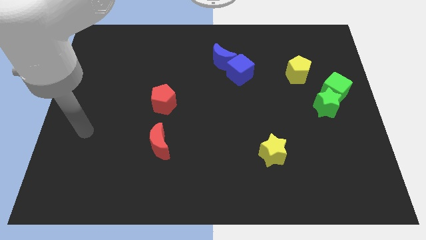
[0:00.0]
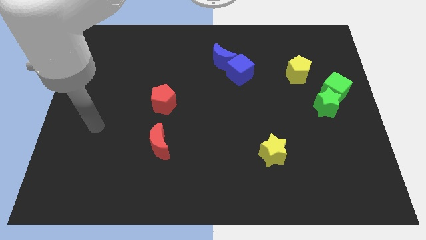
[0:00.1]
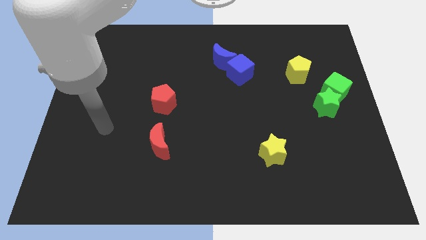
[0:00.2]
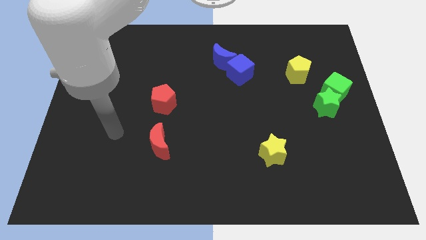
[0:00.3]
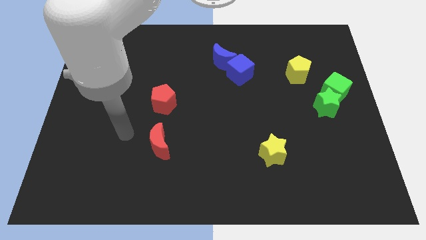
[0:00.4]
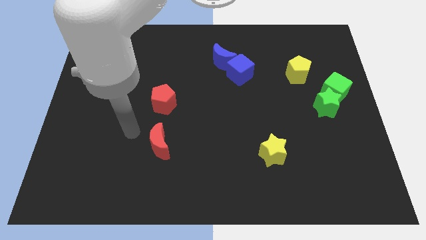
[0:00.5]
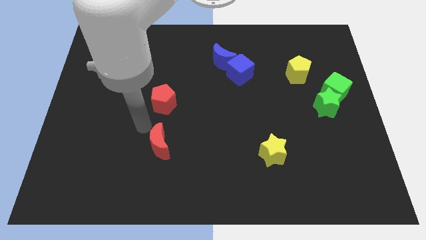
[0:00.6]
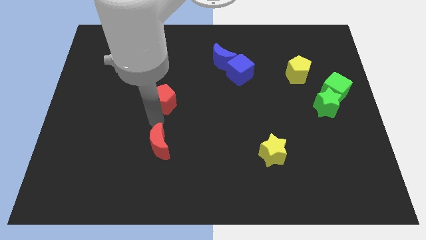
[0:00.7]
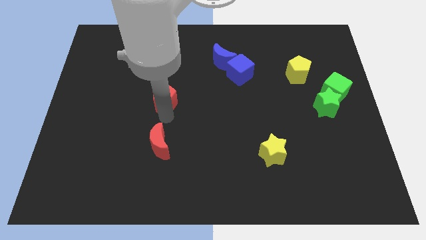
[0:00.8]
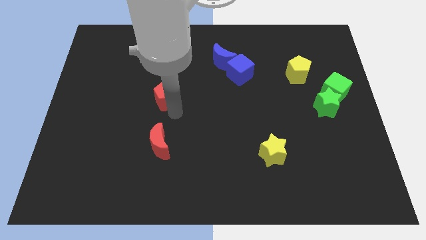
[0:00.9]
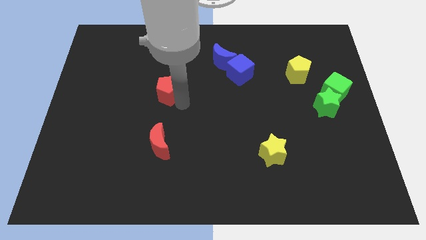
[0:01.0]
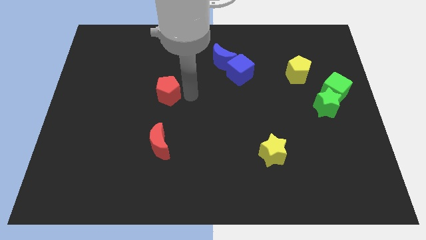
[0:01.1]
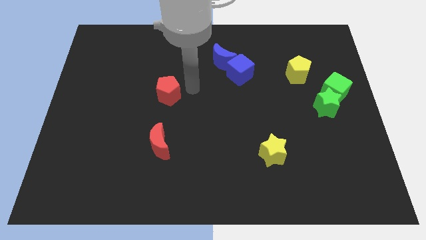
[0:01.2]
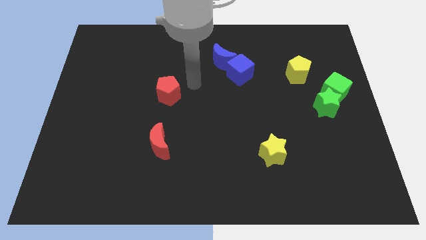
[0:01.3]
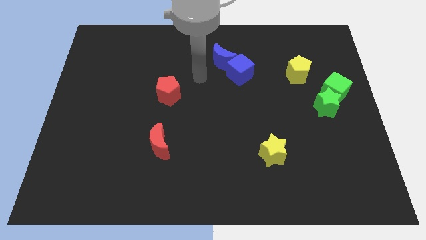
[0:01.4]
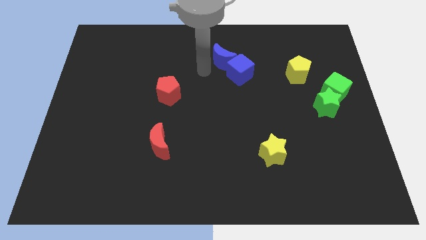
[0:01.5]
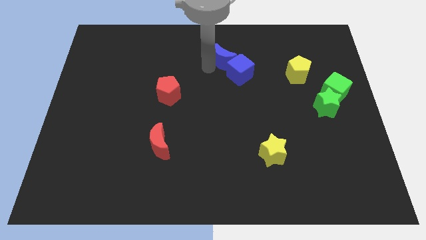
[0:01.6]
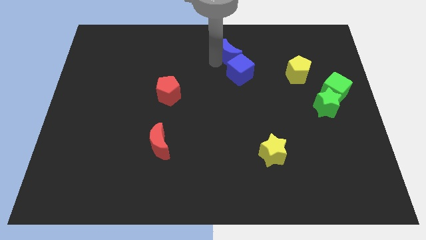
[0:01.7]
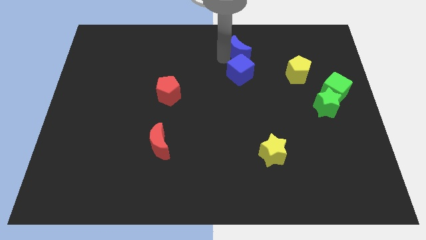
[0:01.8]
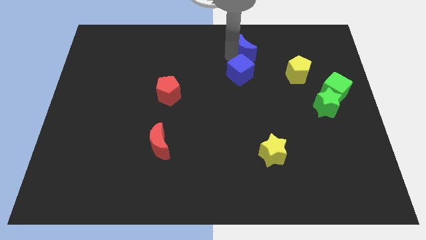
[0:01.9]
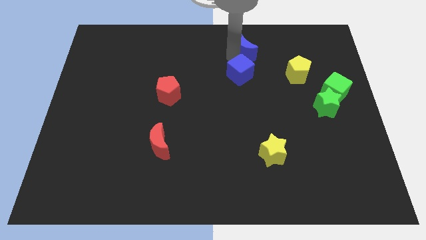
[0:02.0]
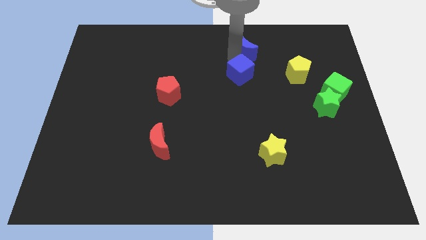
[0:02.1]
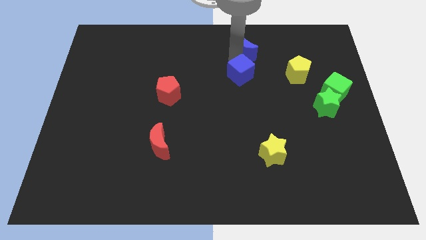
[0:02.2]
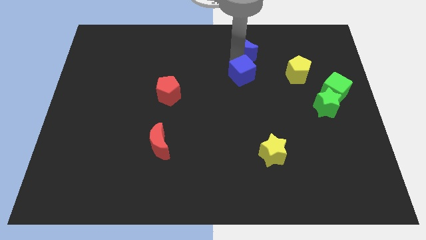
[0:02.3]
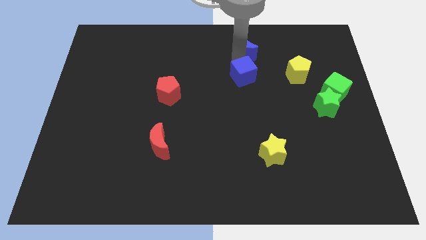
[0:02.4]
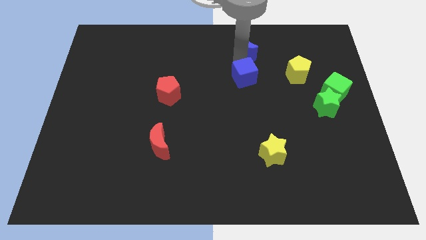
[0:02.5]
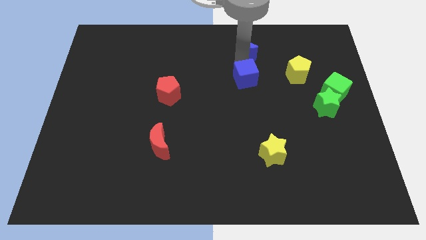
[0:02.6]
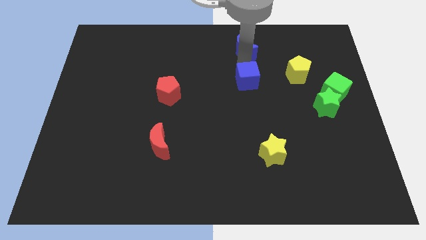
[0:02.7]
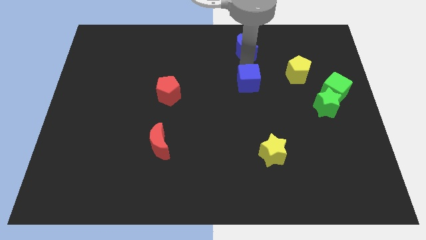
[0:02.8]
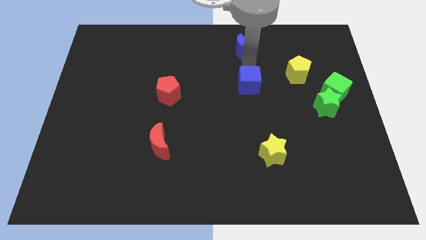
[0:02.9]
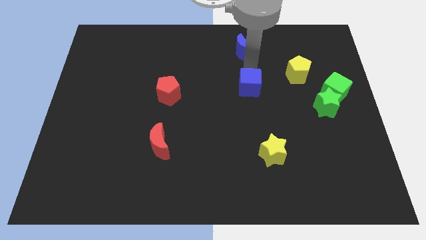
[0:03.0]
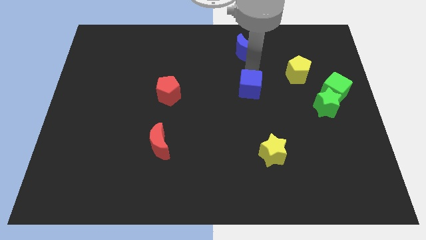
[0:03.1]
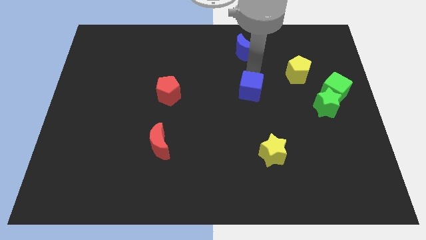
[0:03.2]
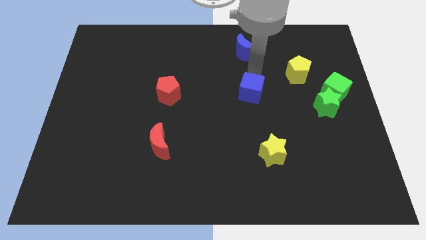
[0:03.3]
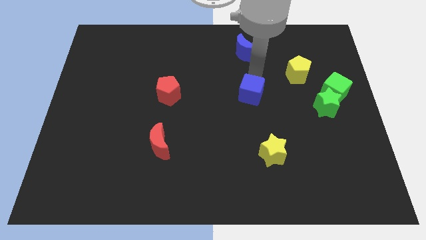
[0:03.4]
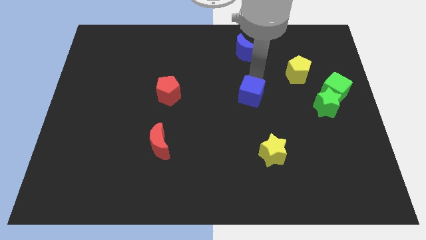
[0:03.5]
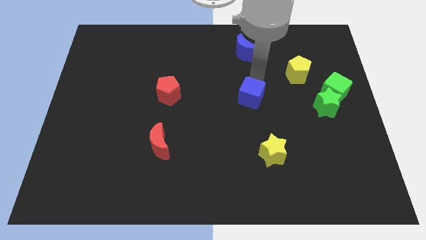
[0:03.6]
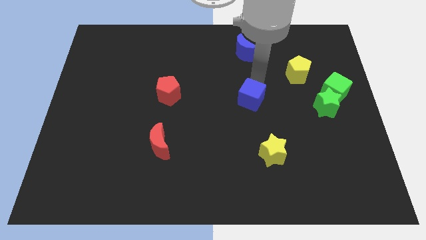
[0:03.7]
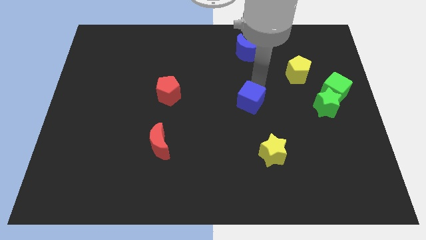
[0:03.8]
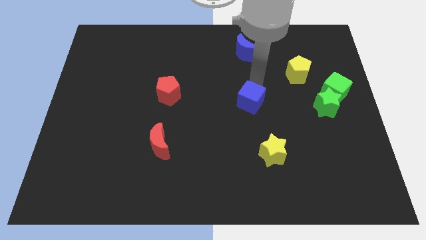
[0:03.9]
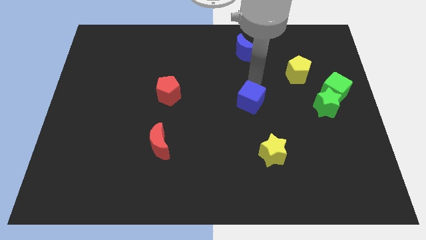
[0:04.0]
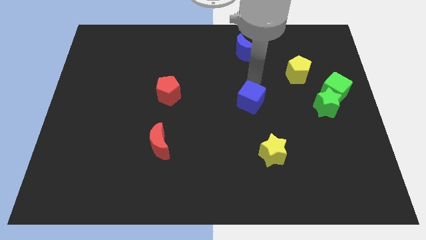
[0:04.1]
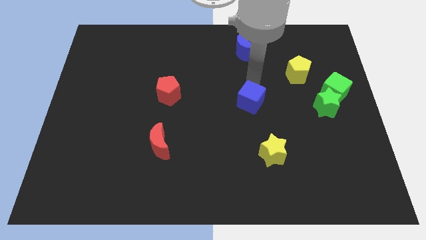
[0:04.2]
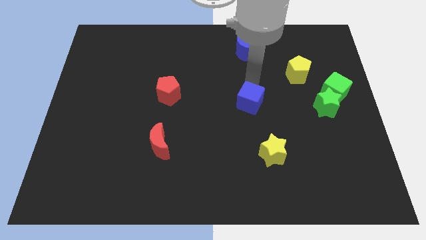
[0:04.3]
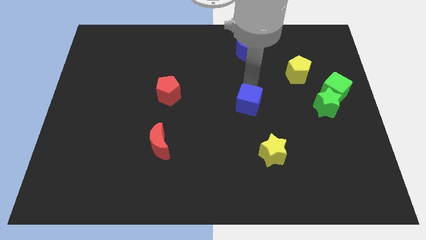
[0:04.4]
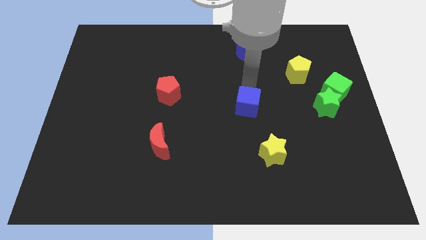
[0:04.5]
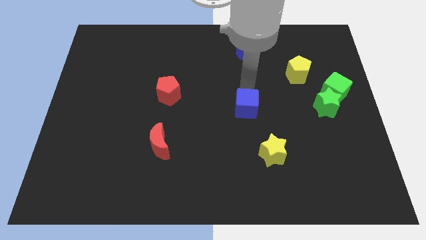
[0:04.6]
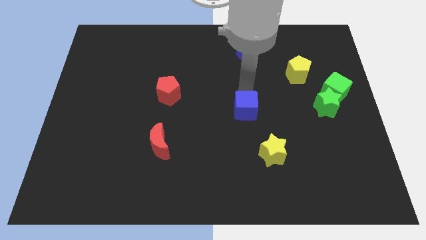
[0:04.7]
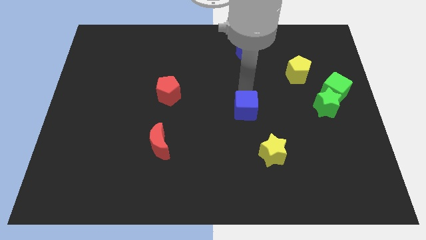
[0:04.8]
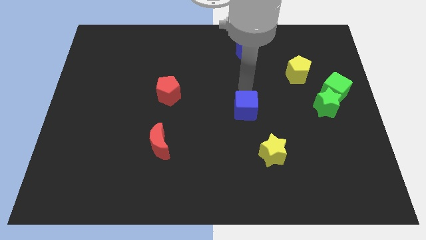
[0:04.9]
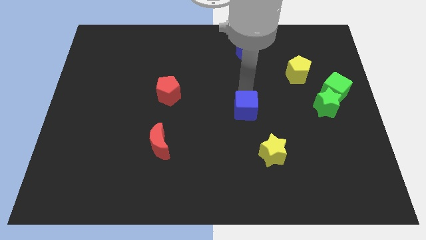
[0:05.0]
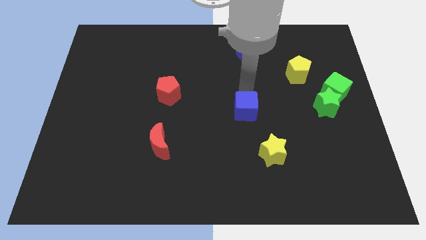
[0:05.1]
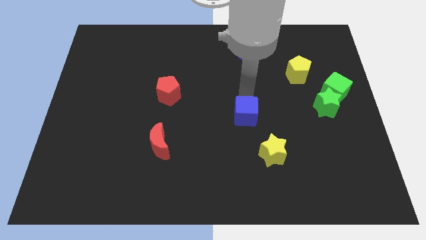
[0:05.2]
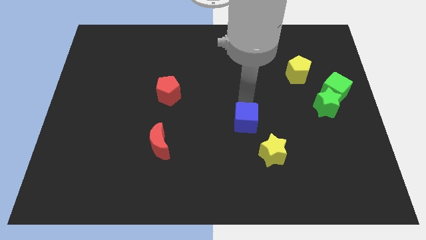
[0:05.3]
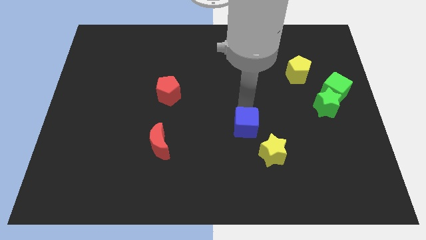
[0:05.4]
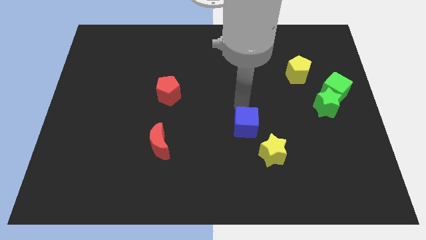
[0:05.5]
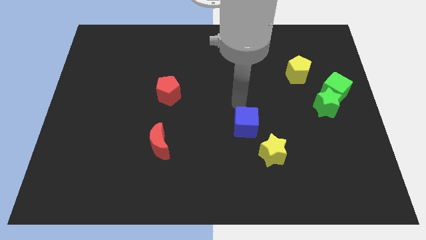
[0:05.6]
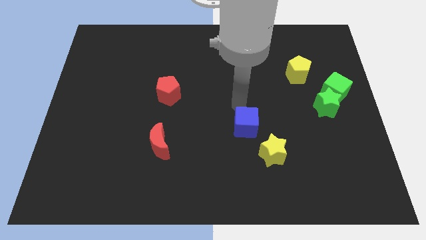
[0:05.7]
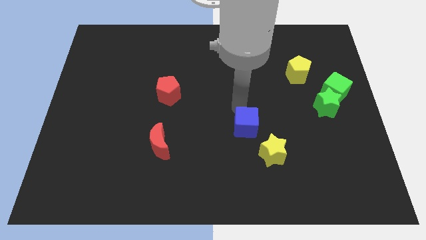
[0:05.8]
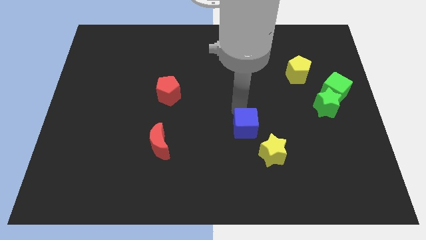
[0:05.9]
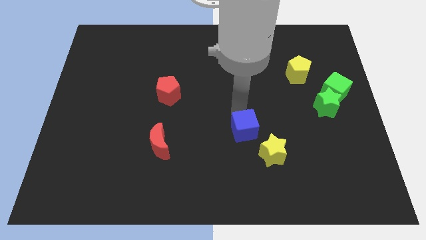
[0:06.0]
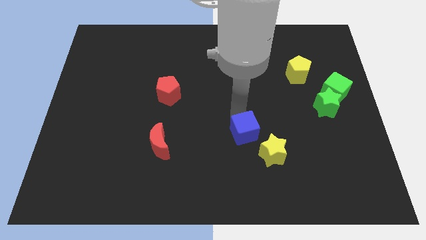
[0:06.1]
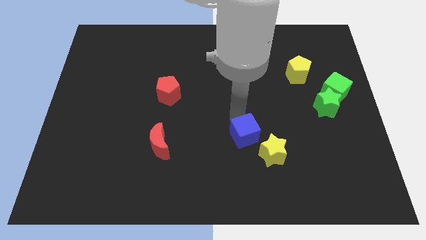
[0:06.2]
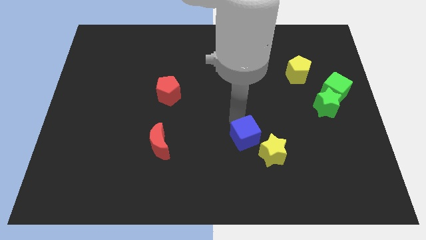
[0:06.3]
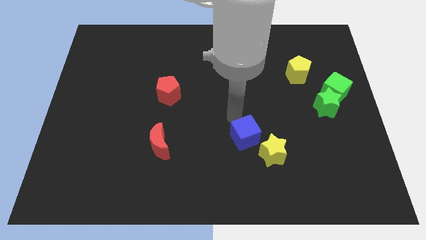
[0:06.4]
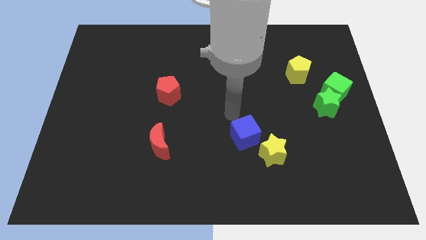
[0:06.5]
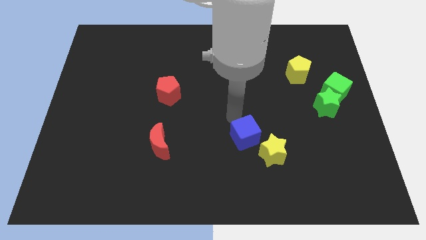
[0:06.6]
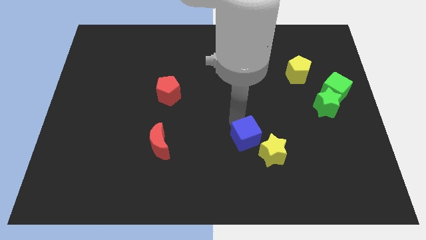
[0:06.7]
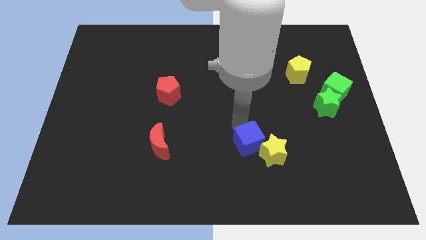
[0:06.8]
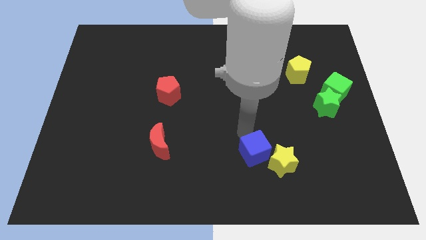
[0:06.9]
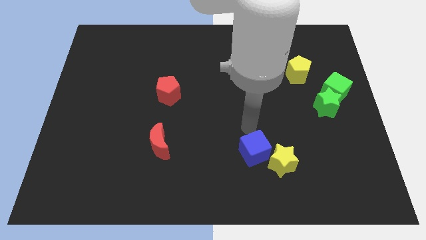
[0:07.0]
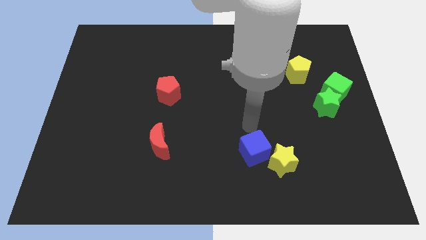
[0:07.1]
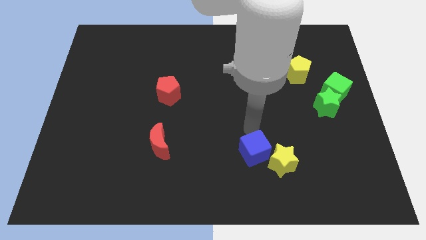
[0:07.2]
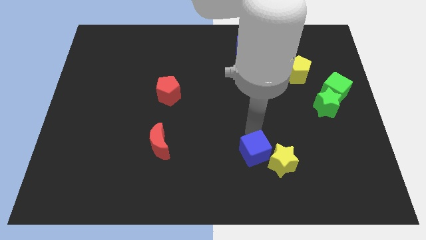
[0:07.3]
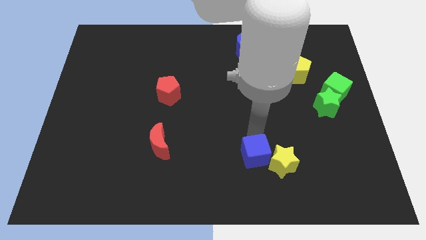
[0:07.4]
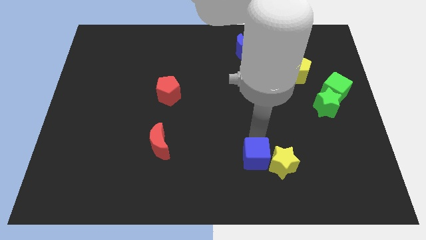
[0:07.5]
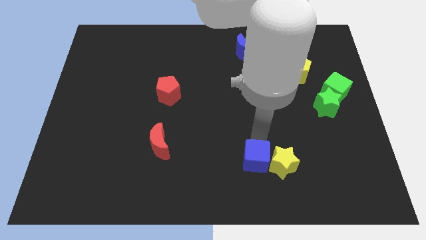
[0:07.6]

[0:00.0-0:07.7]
put the blue cube to the bottom left side of the yellow star

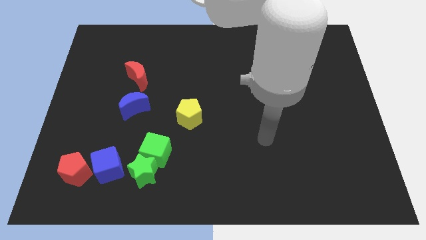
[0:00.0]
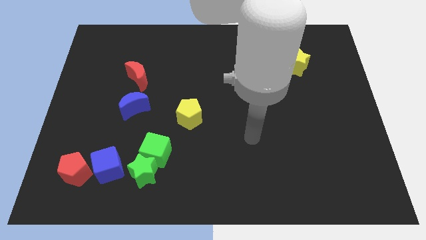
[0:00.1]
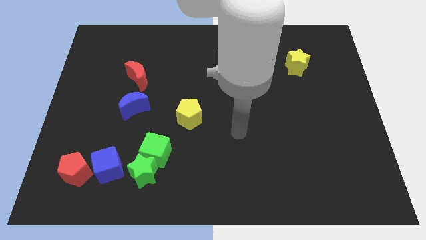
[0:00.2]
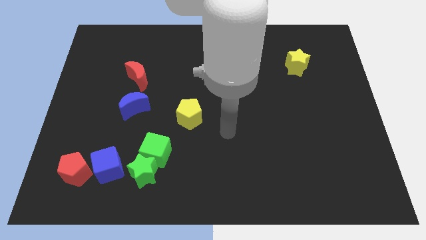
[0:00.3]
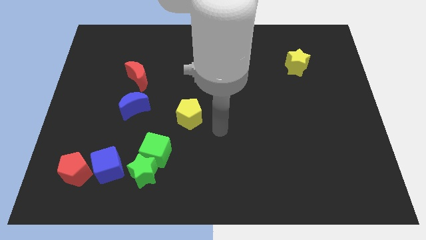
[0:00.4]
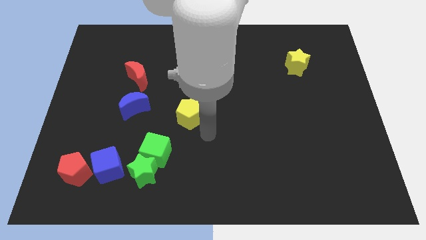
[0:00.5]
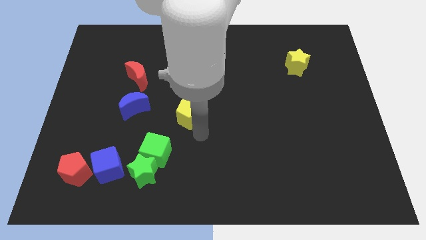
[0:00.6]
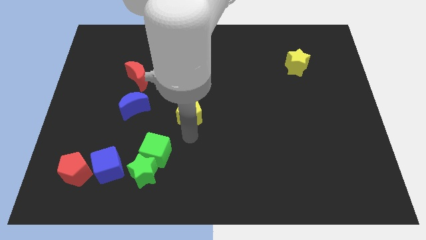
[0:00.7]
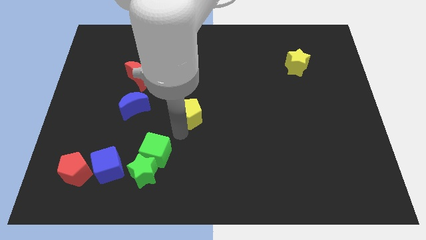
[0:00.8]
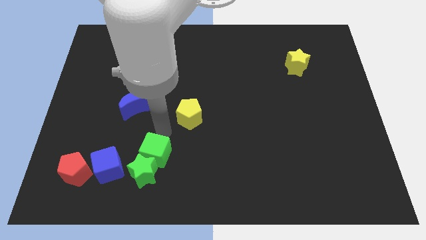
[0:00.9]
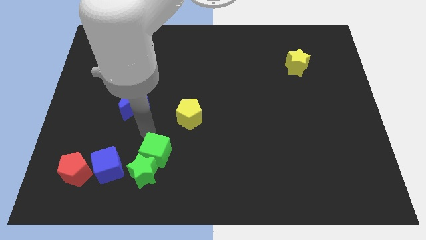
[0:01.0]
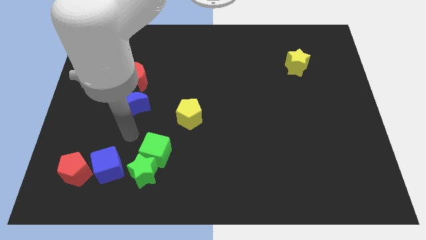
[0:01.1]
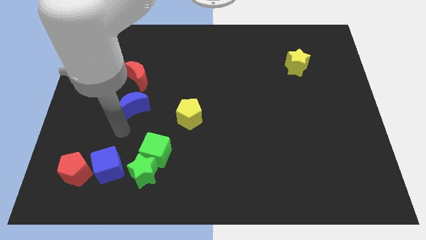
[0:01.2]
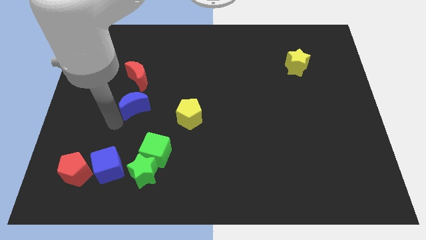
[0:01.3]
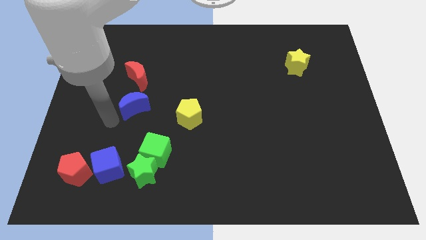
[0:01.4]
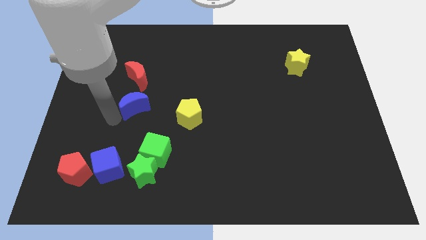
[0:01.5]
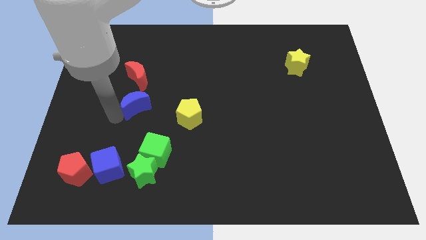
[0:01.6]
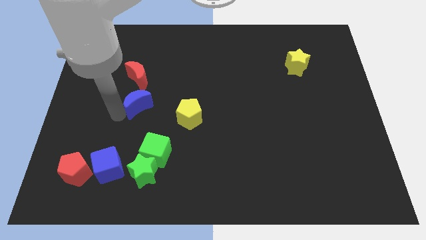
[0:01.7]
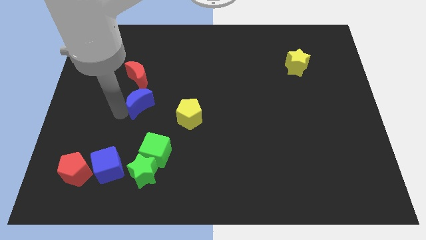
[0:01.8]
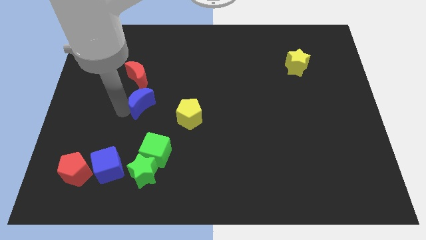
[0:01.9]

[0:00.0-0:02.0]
move the blue moon to the bottom right of the red moon
